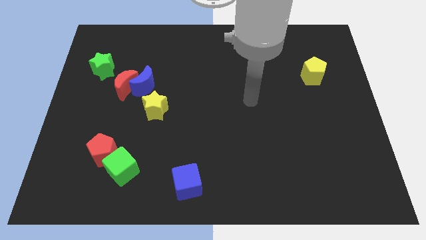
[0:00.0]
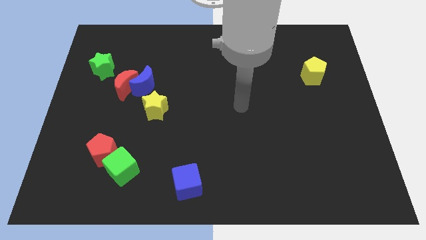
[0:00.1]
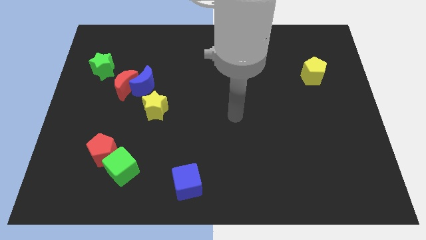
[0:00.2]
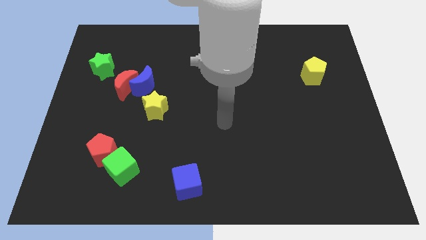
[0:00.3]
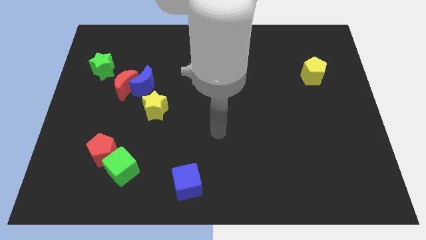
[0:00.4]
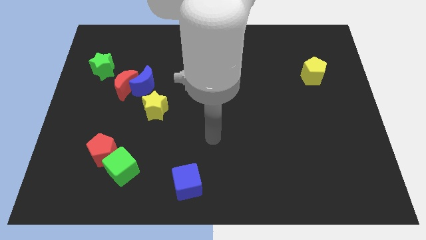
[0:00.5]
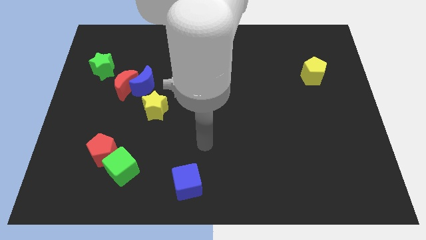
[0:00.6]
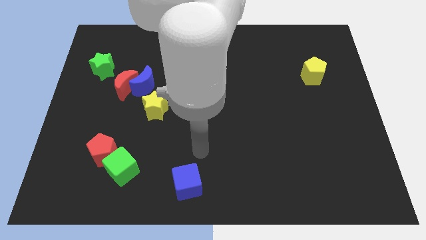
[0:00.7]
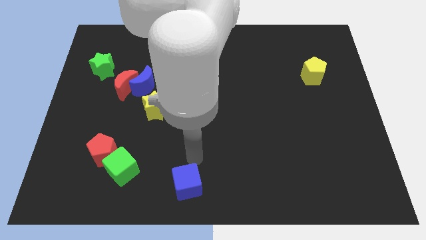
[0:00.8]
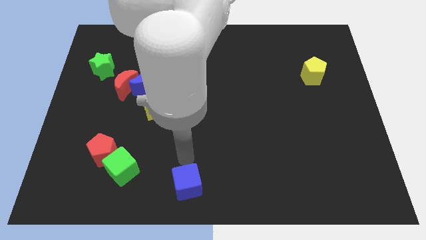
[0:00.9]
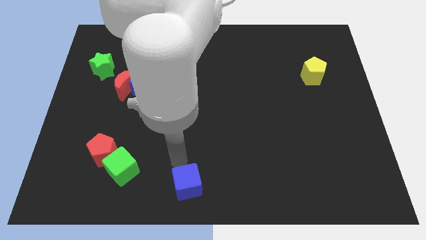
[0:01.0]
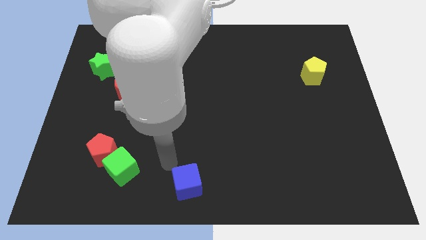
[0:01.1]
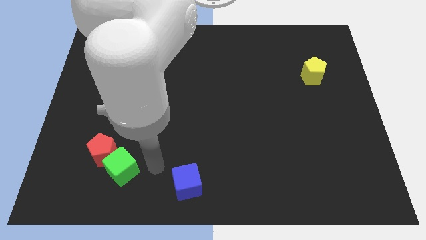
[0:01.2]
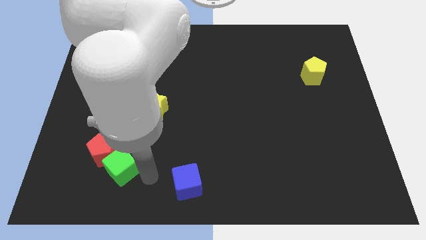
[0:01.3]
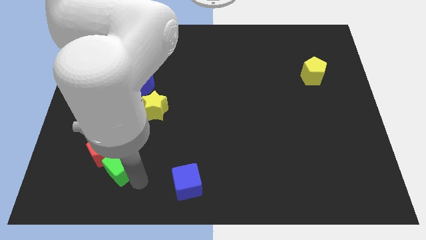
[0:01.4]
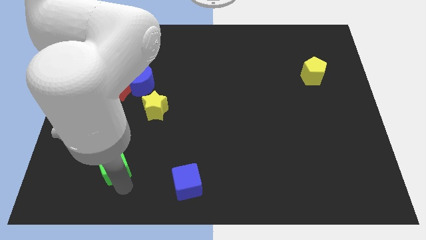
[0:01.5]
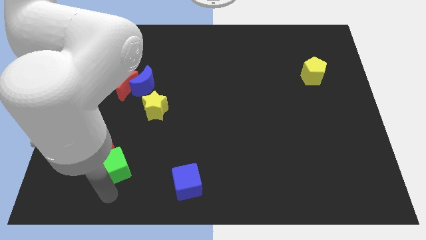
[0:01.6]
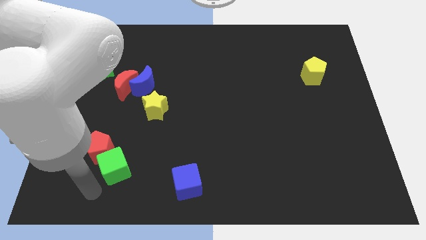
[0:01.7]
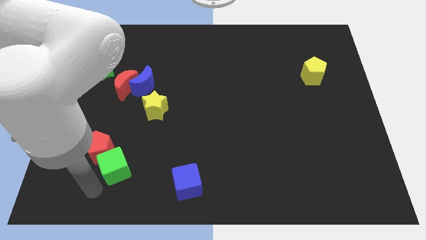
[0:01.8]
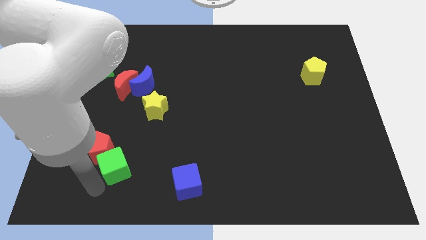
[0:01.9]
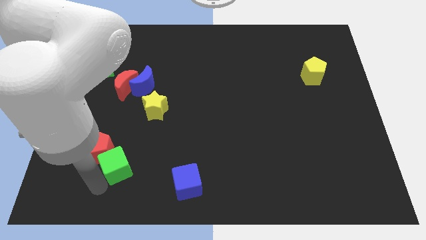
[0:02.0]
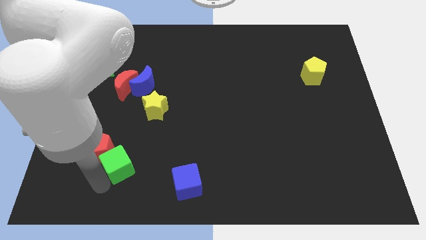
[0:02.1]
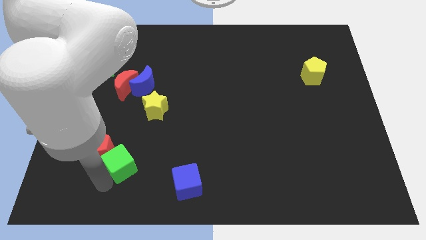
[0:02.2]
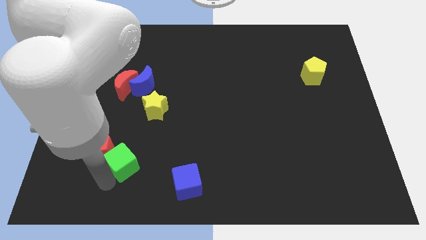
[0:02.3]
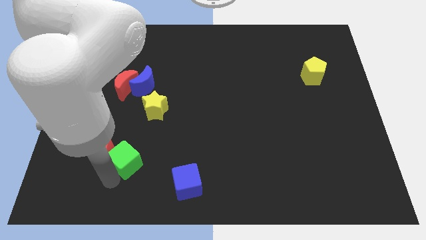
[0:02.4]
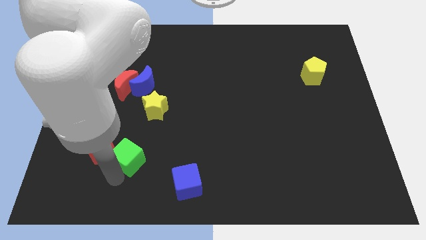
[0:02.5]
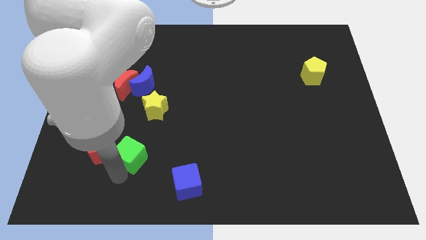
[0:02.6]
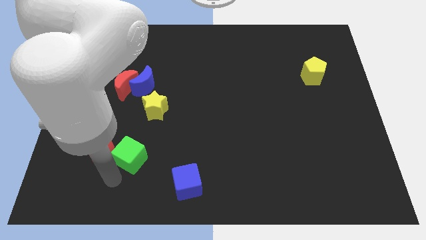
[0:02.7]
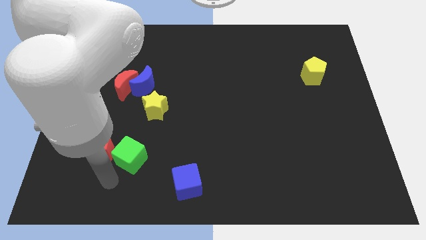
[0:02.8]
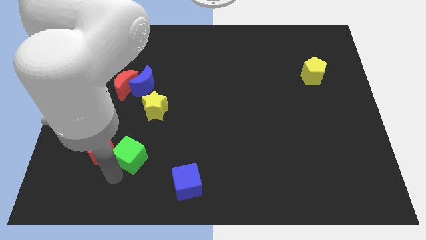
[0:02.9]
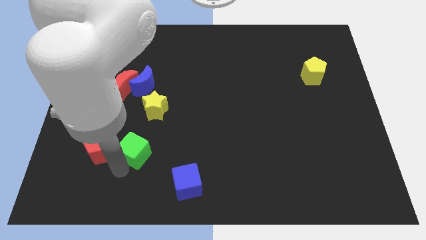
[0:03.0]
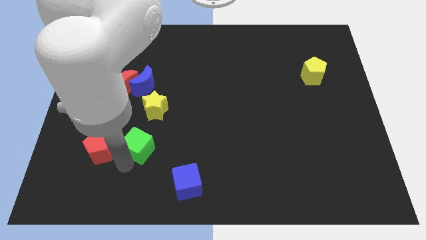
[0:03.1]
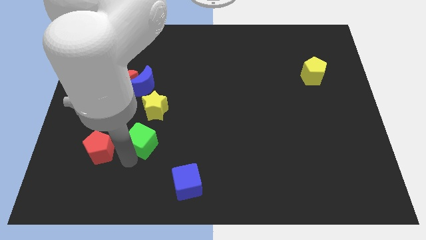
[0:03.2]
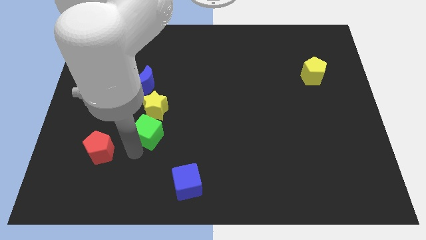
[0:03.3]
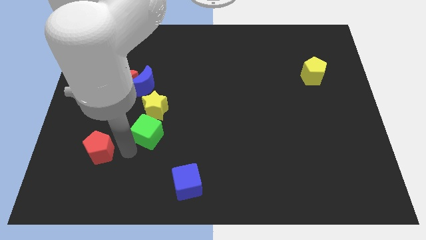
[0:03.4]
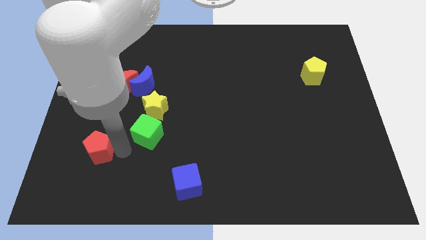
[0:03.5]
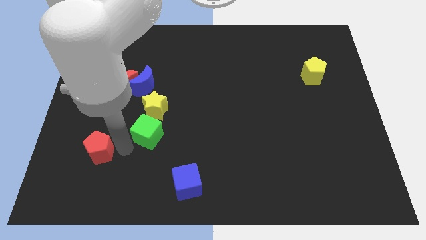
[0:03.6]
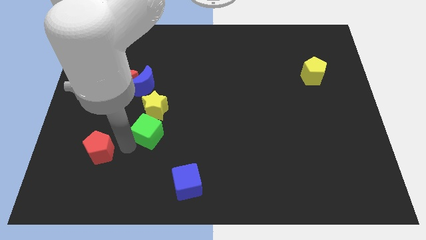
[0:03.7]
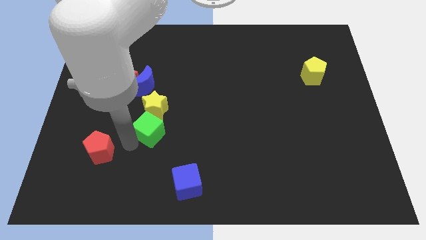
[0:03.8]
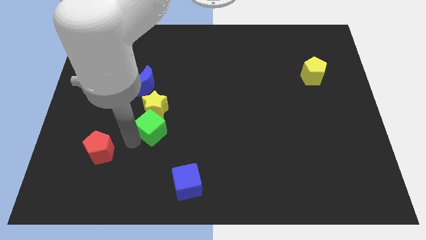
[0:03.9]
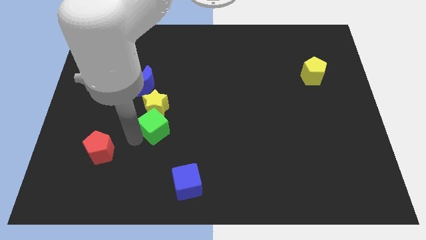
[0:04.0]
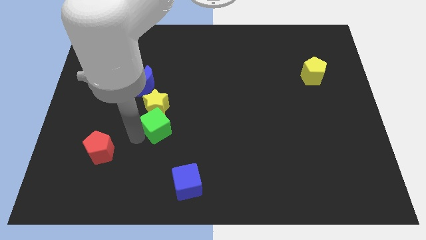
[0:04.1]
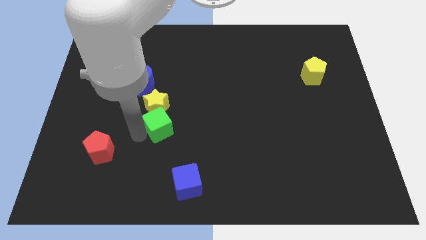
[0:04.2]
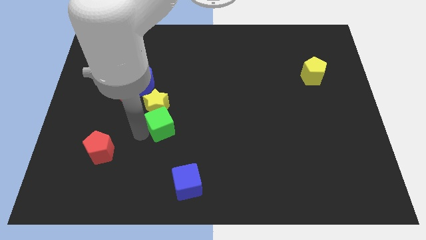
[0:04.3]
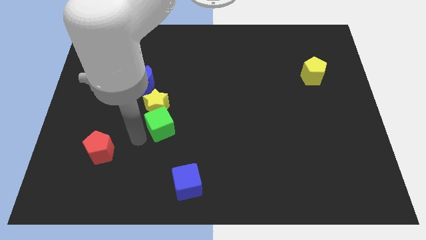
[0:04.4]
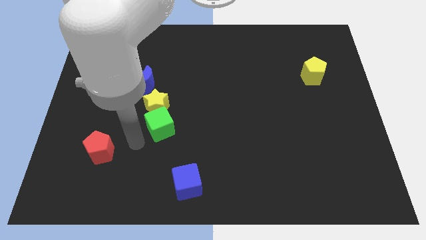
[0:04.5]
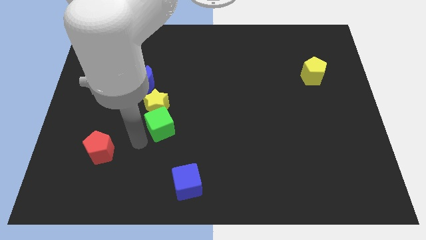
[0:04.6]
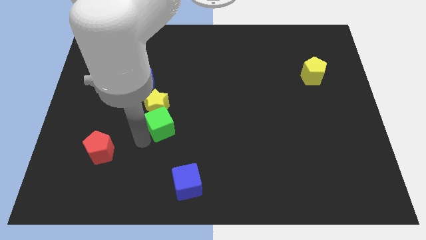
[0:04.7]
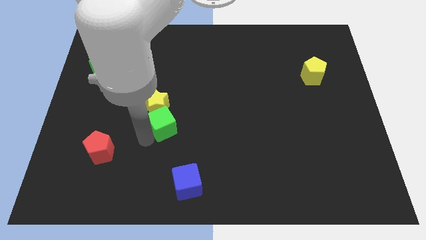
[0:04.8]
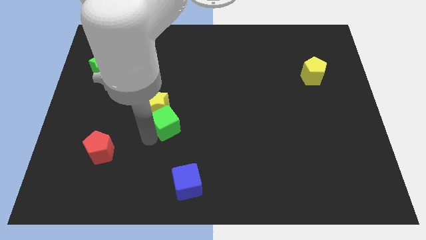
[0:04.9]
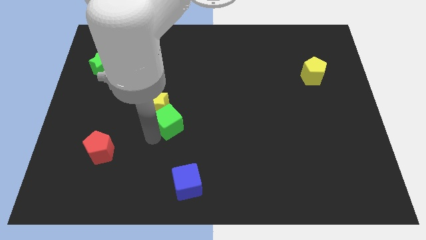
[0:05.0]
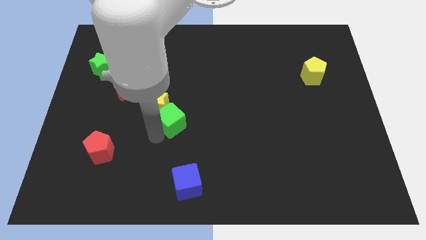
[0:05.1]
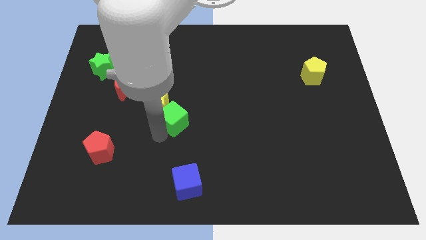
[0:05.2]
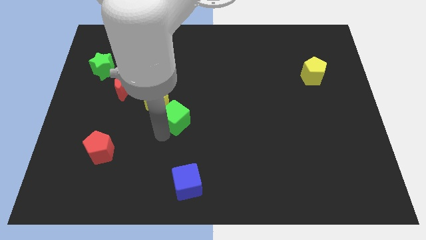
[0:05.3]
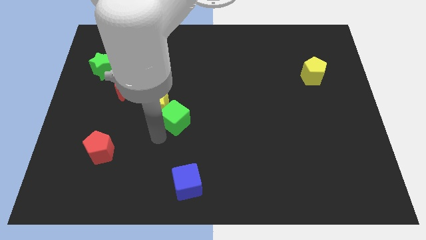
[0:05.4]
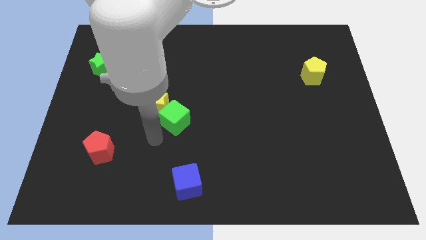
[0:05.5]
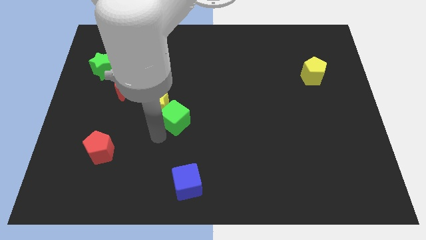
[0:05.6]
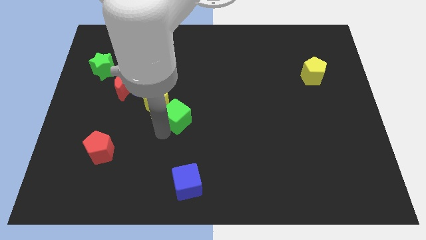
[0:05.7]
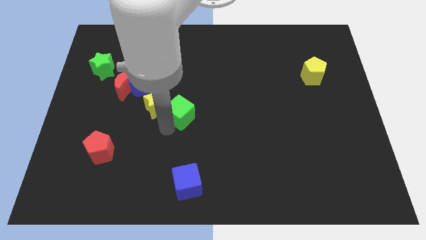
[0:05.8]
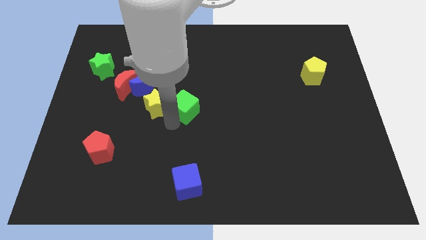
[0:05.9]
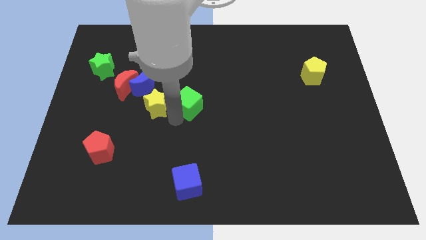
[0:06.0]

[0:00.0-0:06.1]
move the green cube up and right diagonally

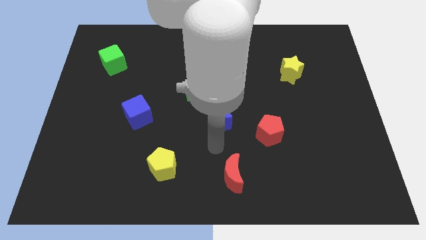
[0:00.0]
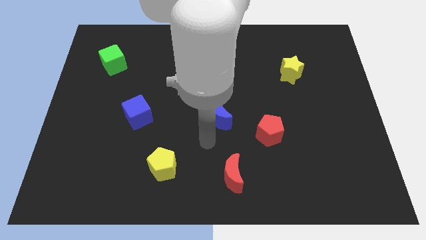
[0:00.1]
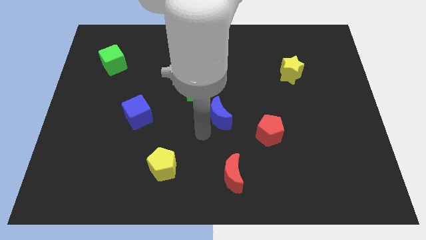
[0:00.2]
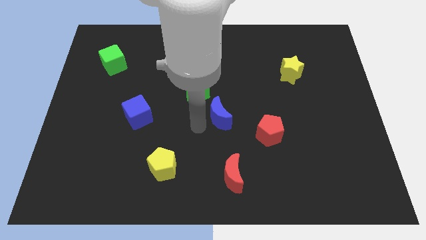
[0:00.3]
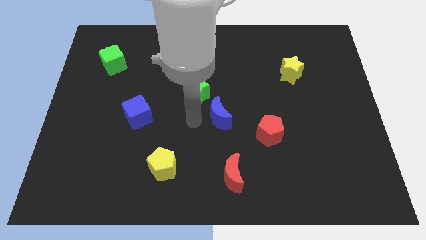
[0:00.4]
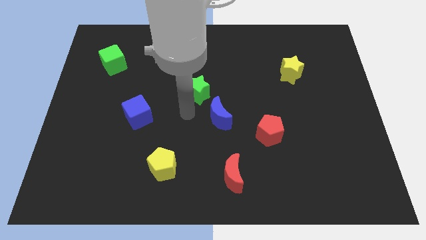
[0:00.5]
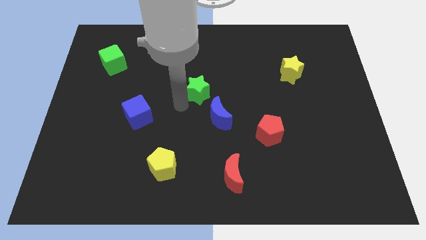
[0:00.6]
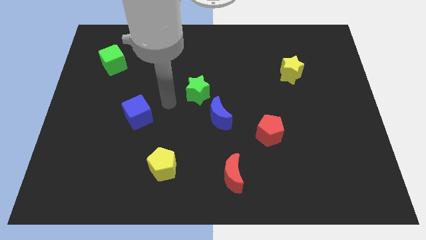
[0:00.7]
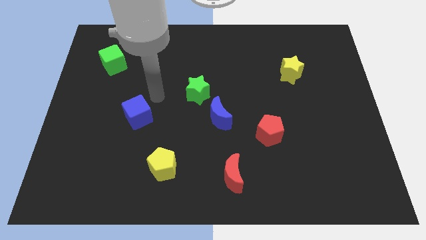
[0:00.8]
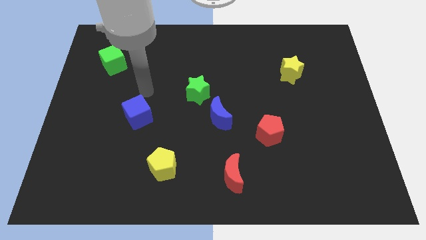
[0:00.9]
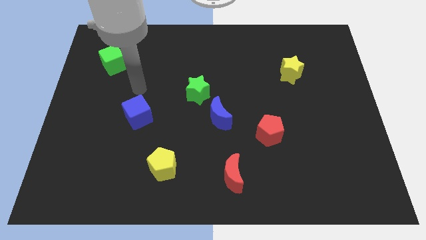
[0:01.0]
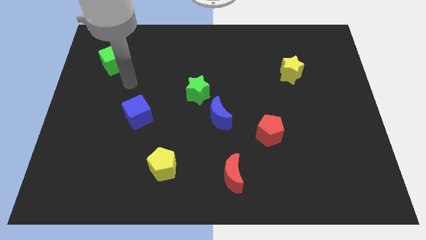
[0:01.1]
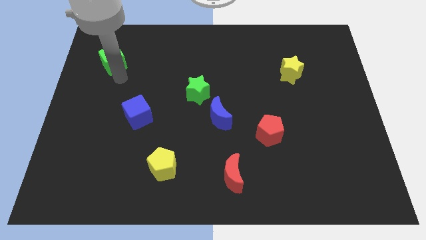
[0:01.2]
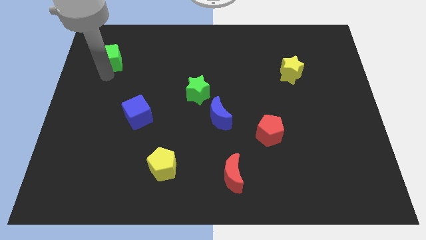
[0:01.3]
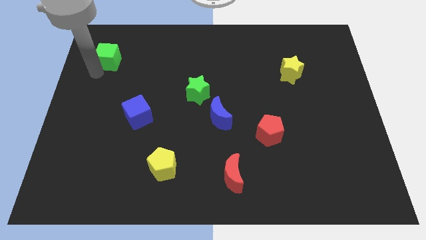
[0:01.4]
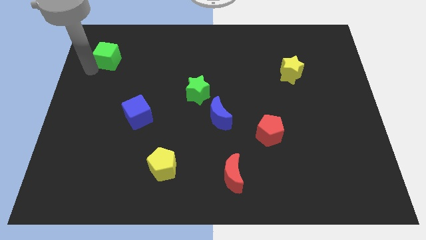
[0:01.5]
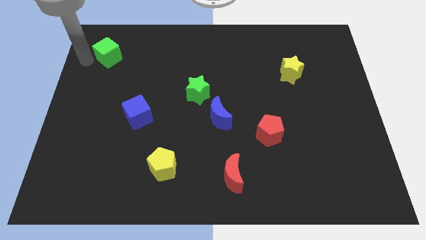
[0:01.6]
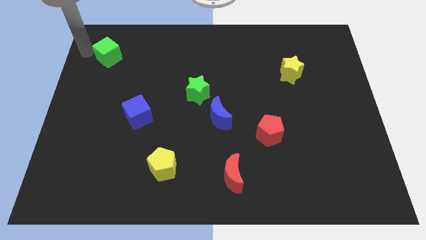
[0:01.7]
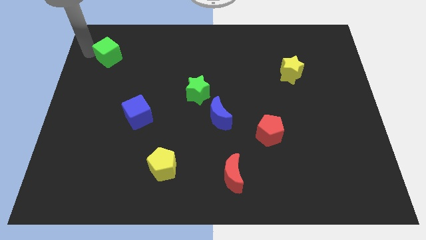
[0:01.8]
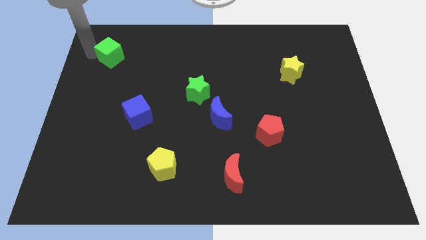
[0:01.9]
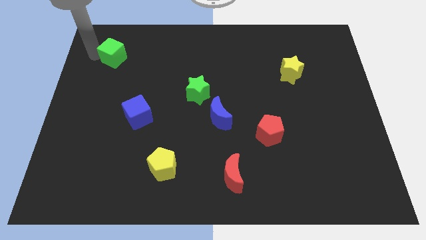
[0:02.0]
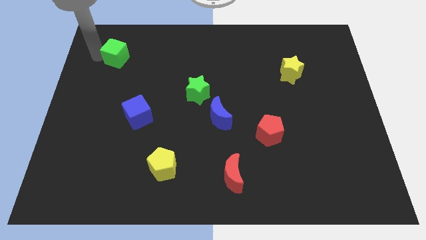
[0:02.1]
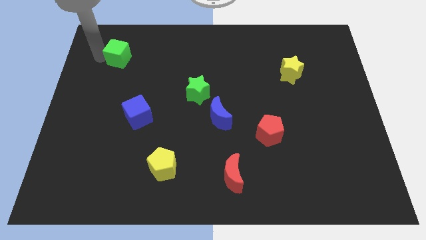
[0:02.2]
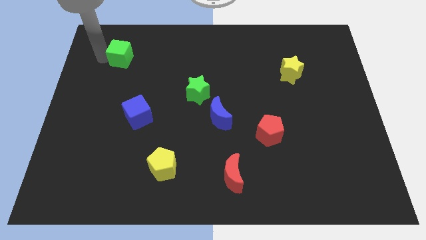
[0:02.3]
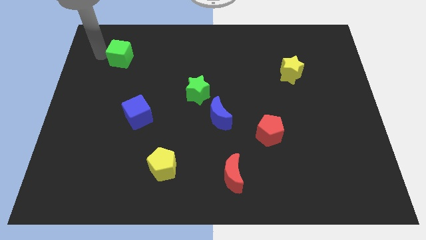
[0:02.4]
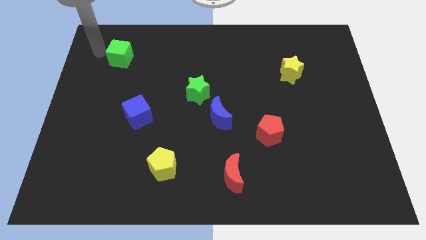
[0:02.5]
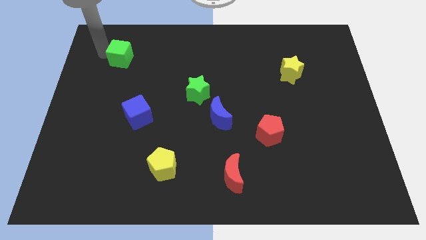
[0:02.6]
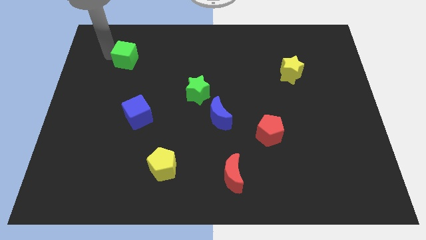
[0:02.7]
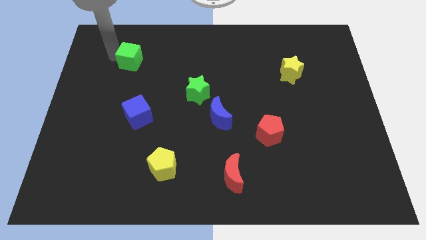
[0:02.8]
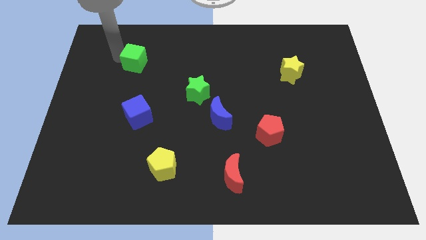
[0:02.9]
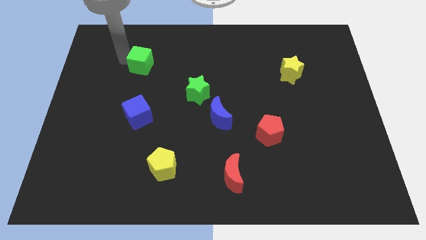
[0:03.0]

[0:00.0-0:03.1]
slightly move the green cube to the right
